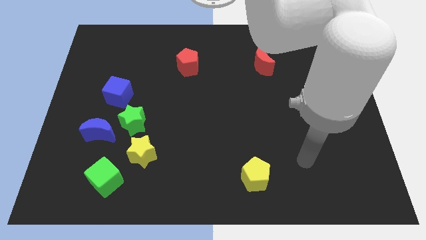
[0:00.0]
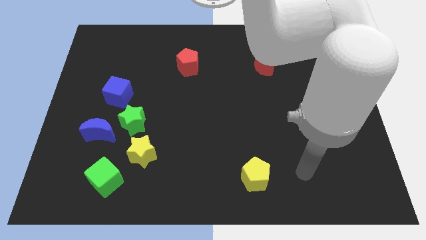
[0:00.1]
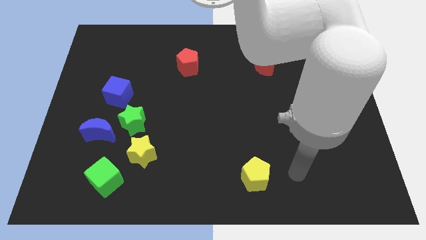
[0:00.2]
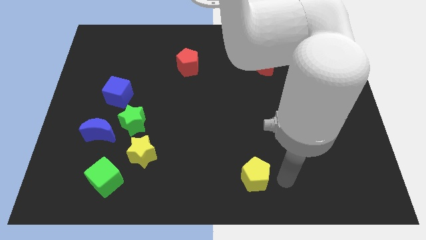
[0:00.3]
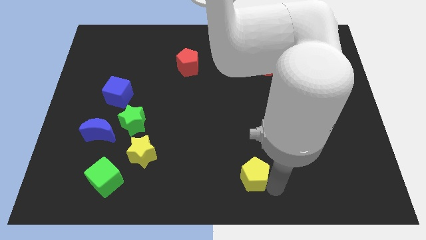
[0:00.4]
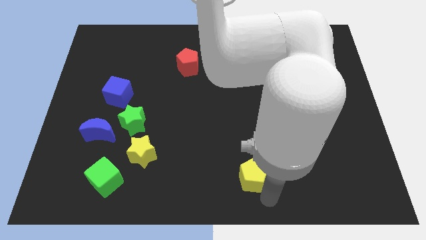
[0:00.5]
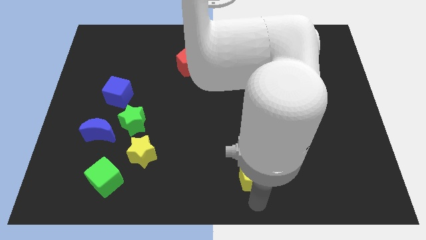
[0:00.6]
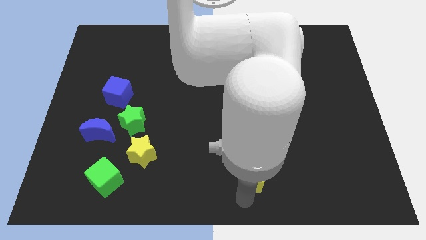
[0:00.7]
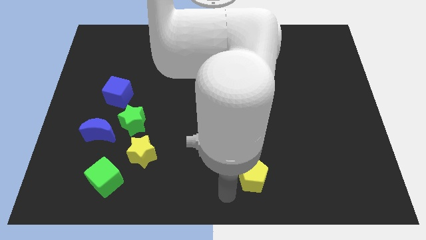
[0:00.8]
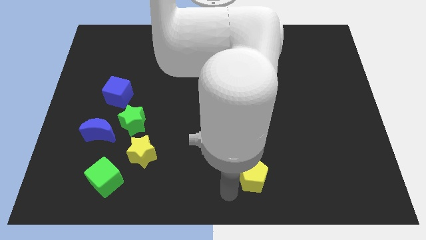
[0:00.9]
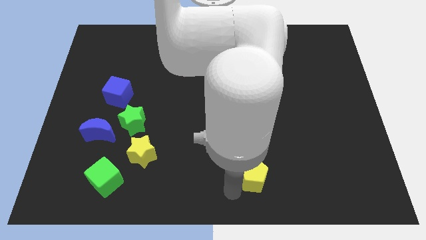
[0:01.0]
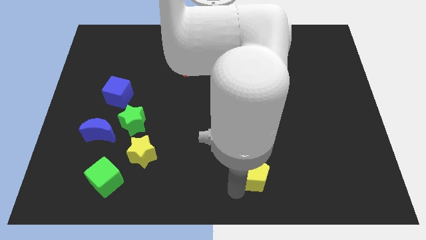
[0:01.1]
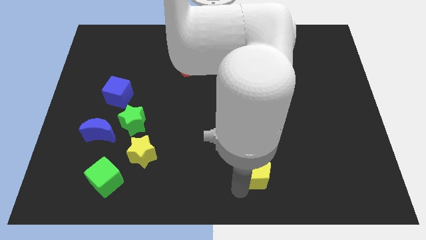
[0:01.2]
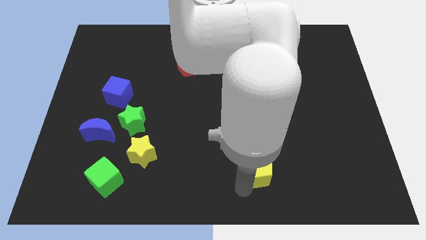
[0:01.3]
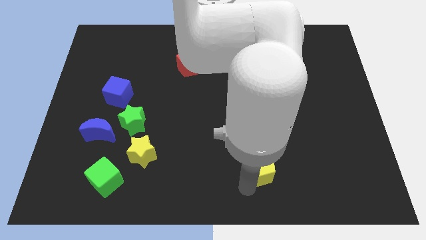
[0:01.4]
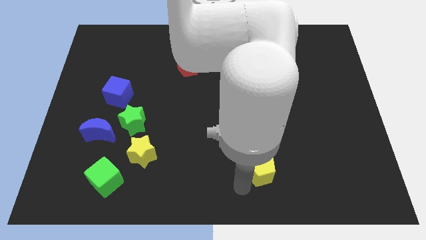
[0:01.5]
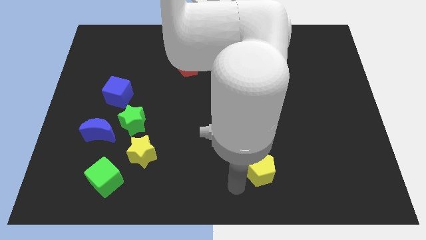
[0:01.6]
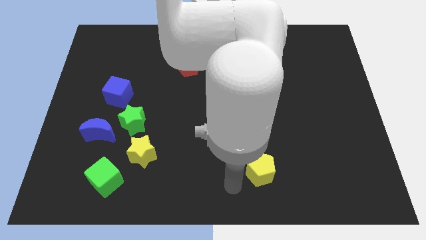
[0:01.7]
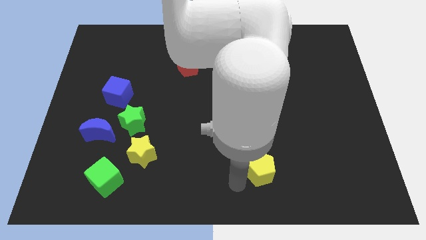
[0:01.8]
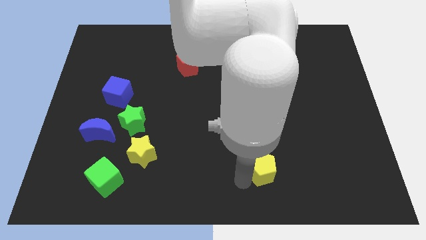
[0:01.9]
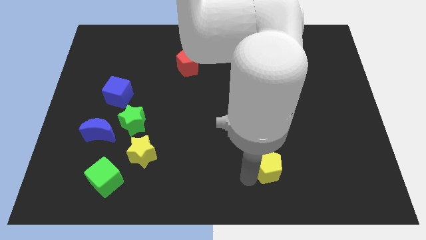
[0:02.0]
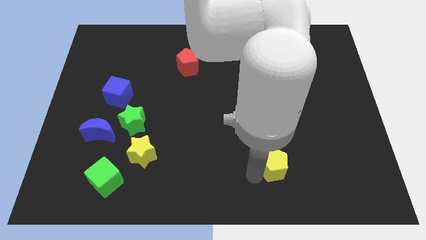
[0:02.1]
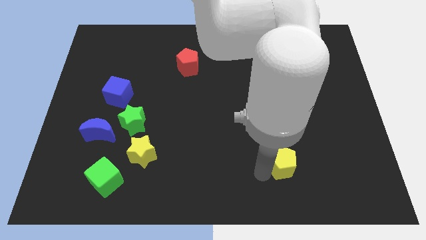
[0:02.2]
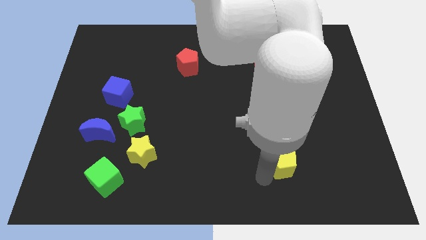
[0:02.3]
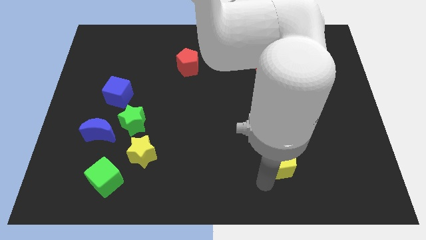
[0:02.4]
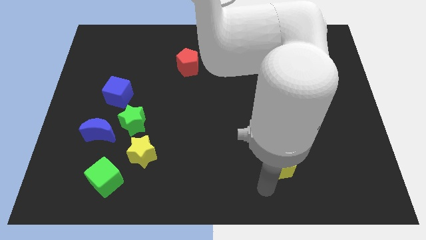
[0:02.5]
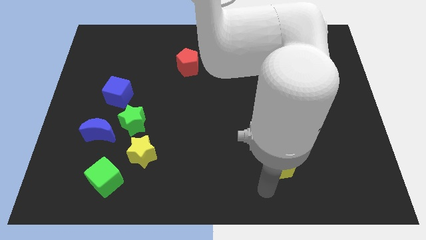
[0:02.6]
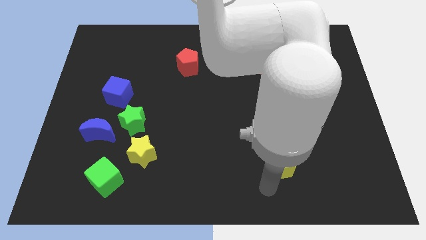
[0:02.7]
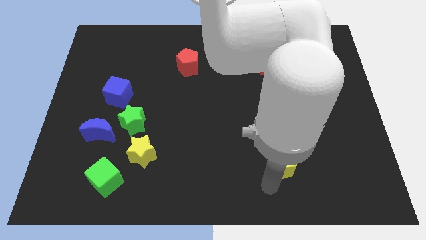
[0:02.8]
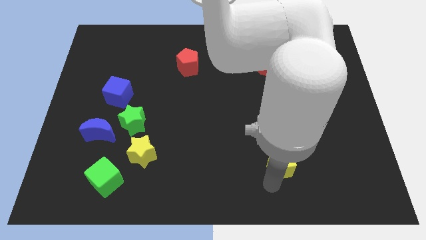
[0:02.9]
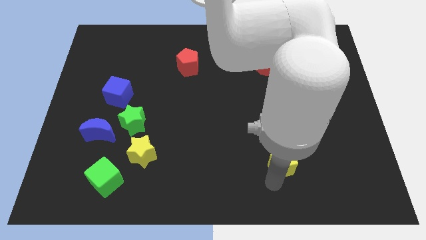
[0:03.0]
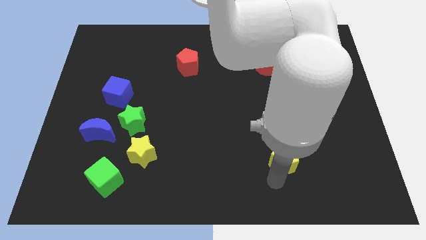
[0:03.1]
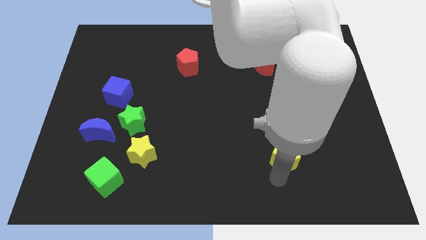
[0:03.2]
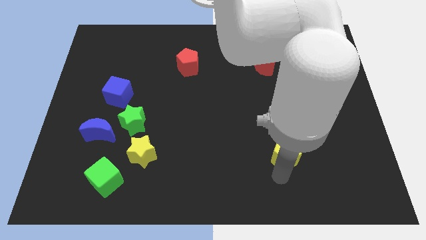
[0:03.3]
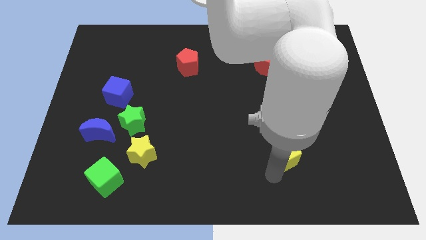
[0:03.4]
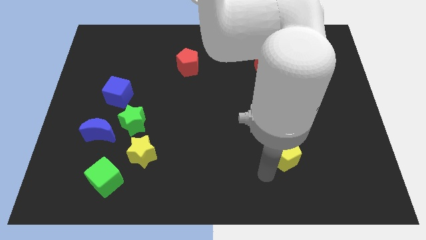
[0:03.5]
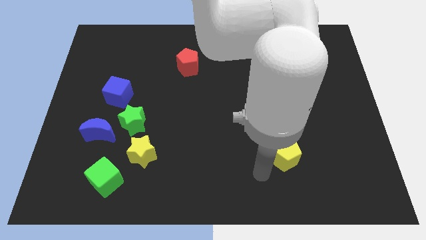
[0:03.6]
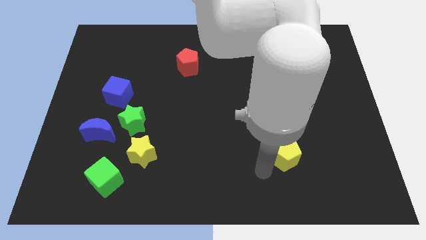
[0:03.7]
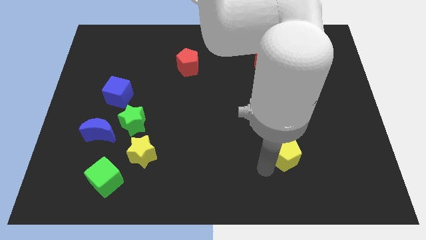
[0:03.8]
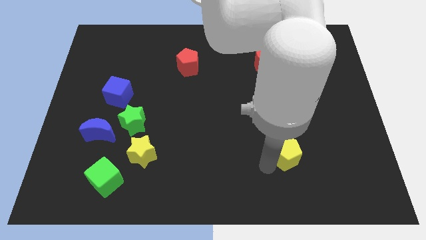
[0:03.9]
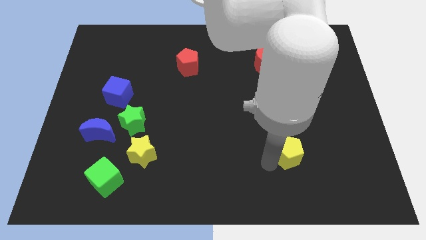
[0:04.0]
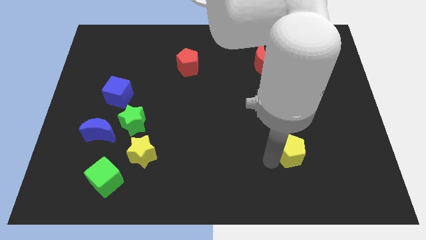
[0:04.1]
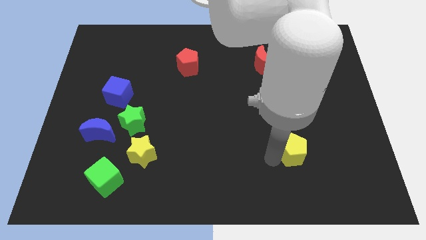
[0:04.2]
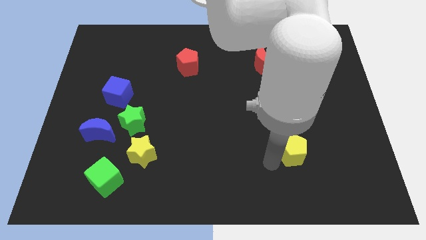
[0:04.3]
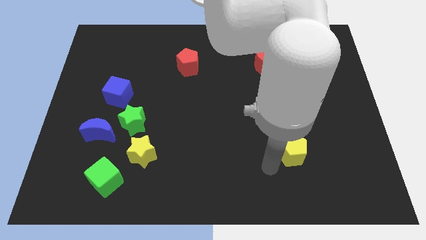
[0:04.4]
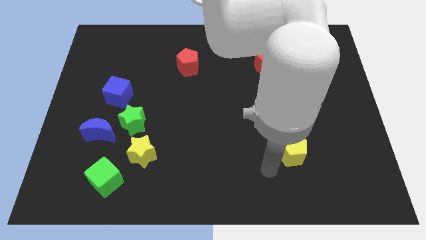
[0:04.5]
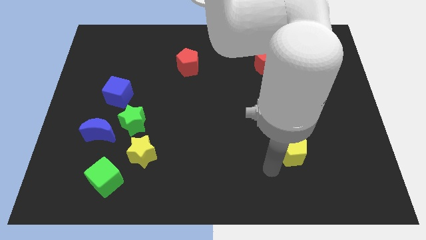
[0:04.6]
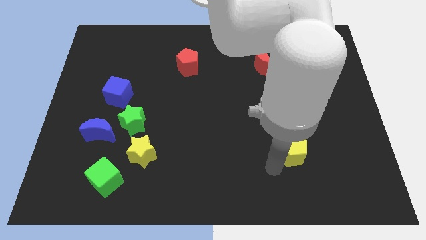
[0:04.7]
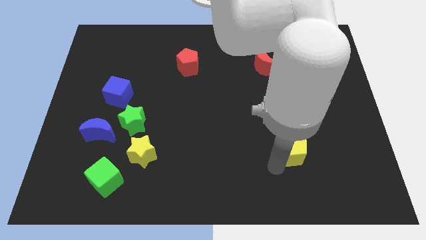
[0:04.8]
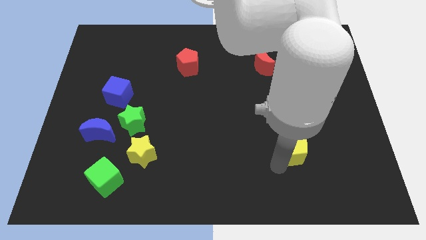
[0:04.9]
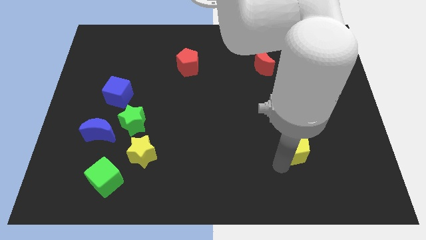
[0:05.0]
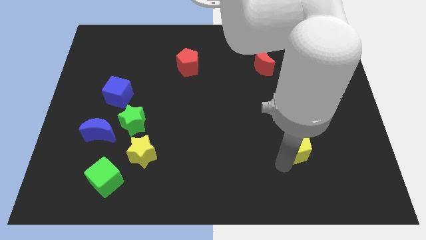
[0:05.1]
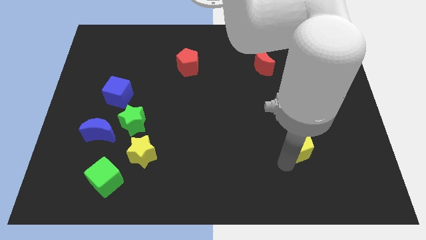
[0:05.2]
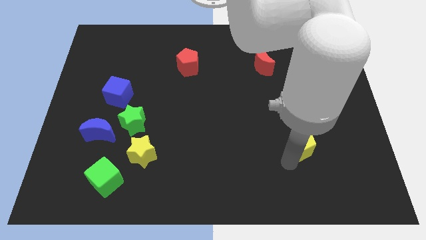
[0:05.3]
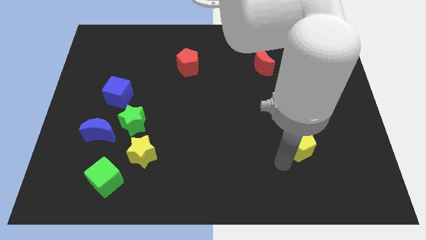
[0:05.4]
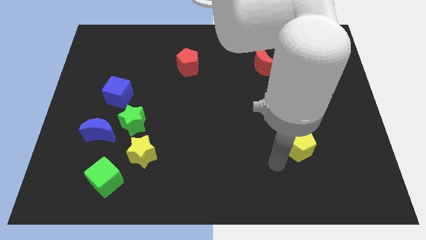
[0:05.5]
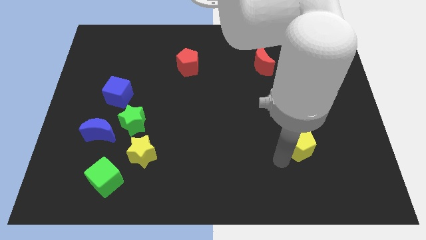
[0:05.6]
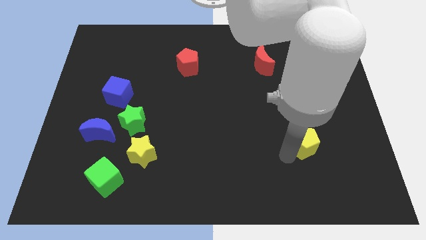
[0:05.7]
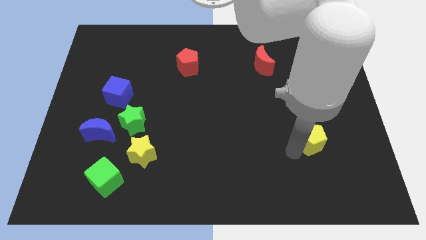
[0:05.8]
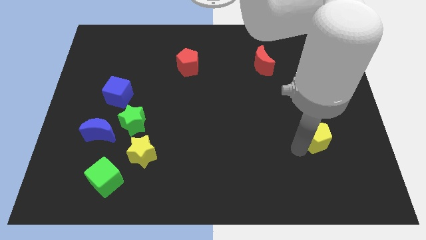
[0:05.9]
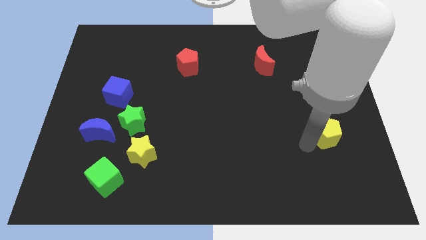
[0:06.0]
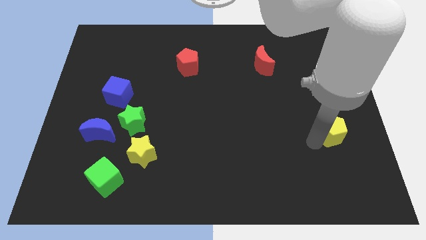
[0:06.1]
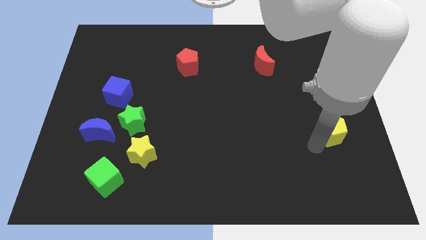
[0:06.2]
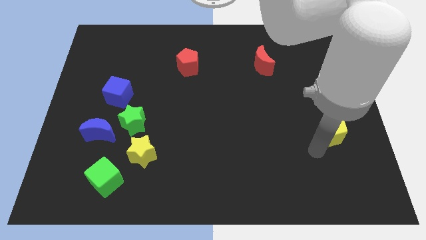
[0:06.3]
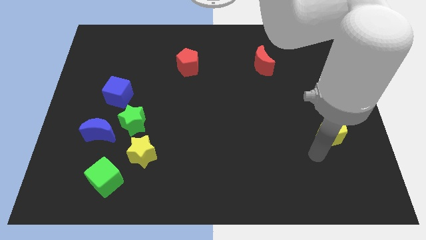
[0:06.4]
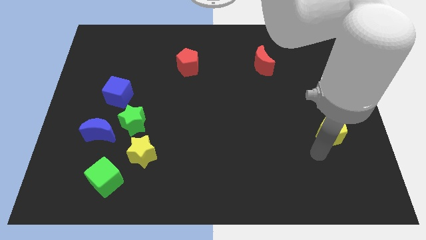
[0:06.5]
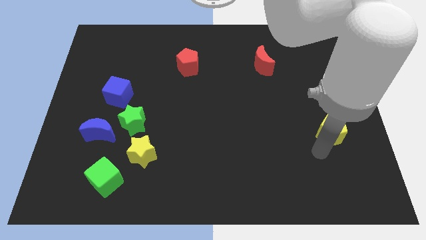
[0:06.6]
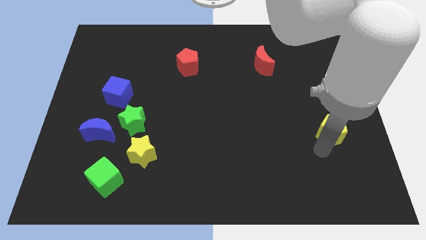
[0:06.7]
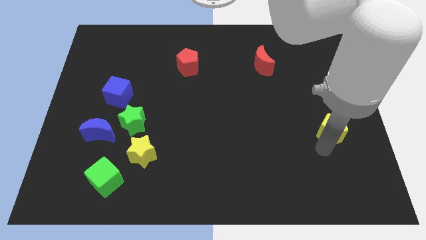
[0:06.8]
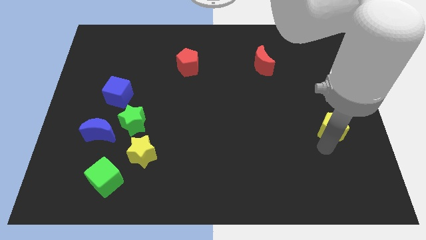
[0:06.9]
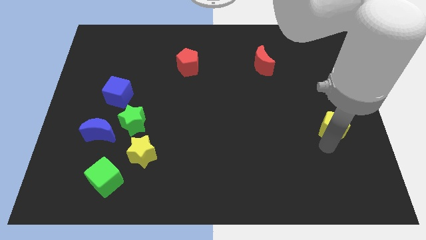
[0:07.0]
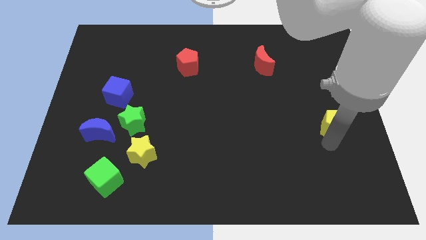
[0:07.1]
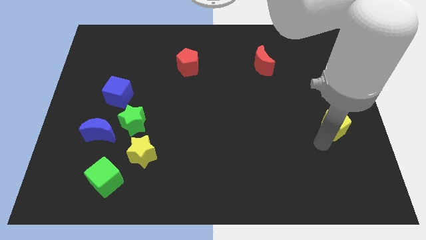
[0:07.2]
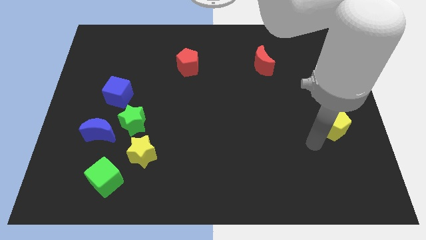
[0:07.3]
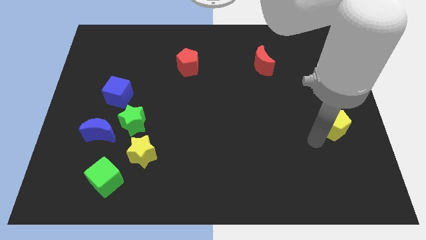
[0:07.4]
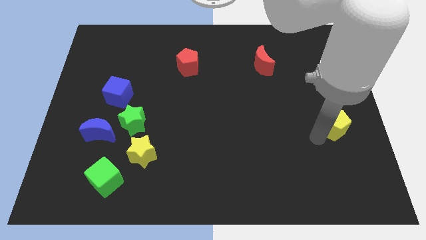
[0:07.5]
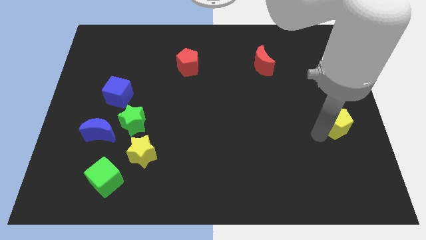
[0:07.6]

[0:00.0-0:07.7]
push the yellow pentagon to the right side
